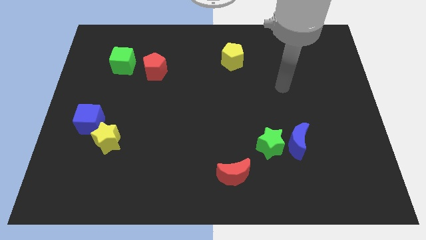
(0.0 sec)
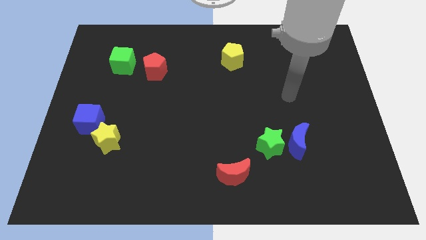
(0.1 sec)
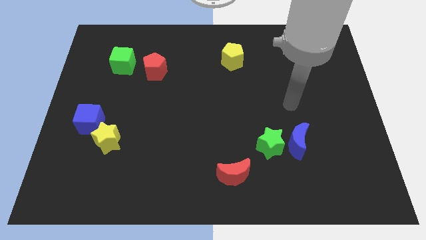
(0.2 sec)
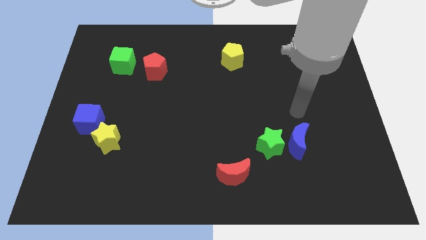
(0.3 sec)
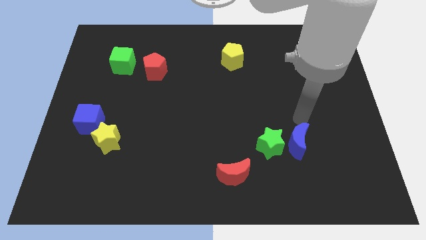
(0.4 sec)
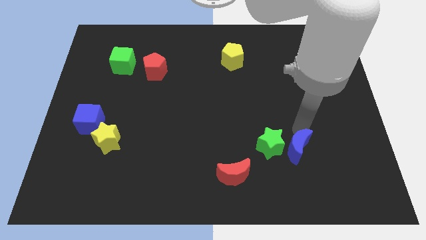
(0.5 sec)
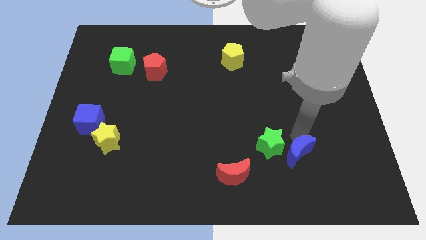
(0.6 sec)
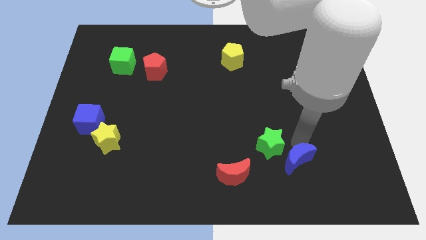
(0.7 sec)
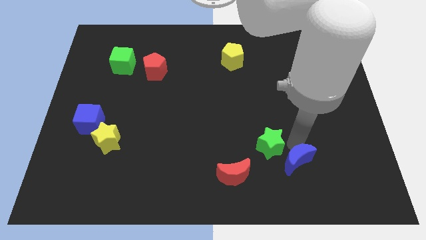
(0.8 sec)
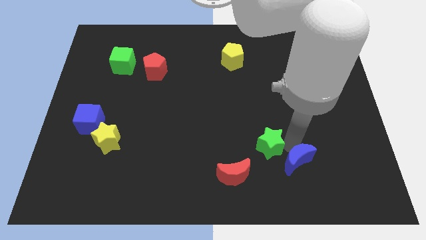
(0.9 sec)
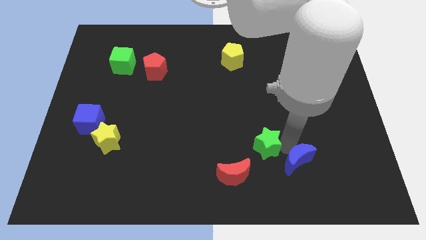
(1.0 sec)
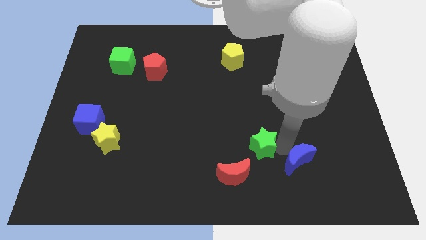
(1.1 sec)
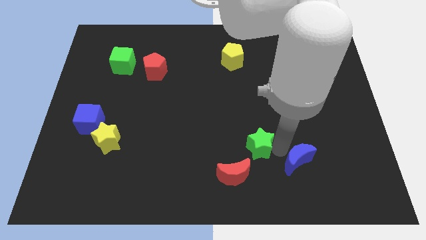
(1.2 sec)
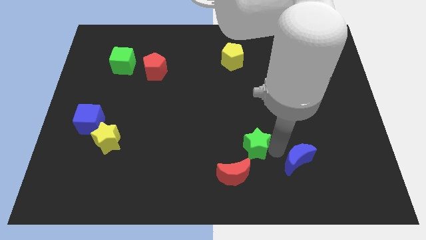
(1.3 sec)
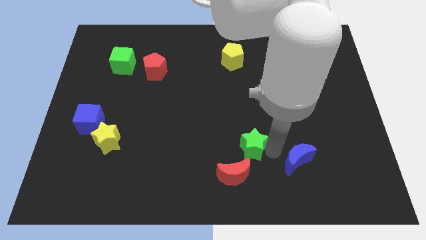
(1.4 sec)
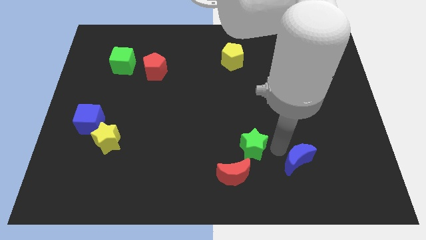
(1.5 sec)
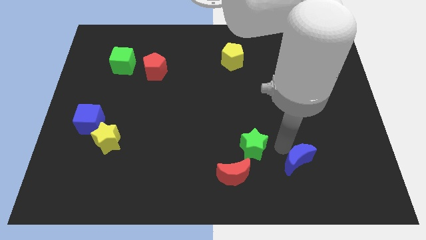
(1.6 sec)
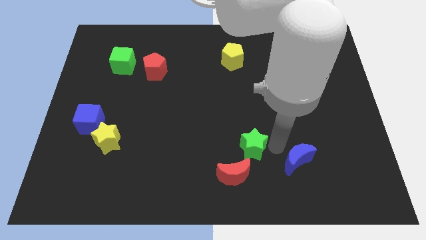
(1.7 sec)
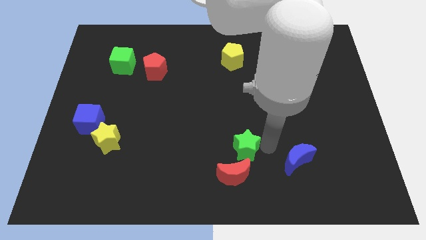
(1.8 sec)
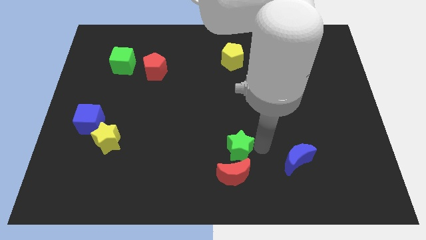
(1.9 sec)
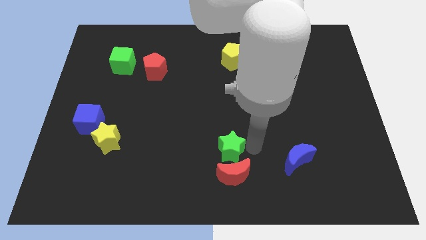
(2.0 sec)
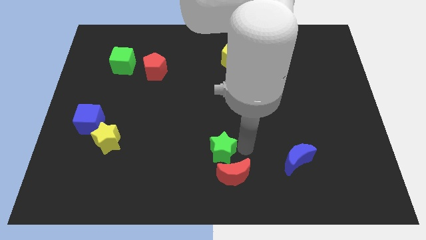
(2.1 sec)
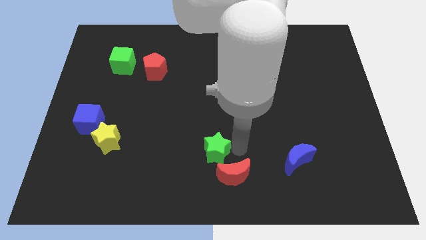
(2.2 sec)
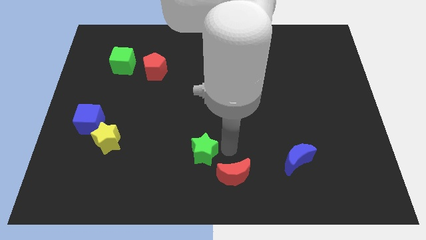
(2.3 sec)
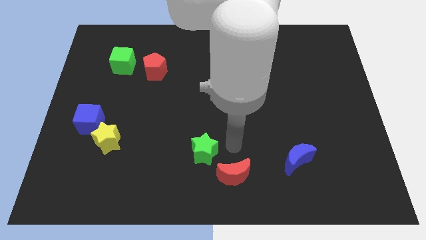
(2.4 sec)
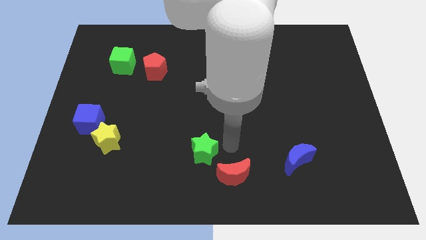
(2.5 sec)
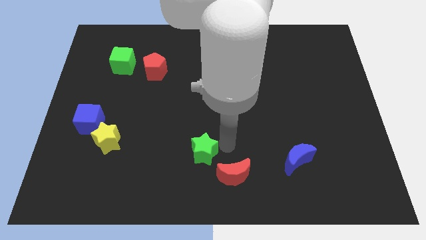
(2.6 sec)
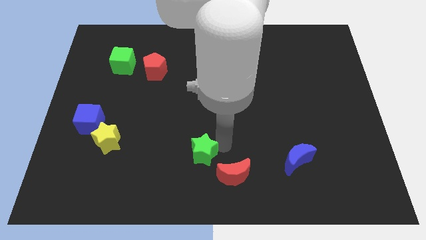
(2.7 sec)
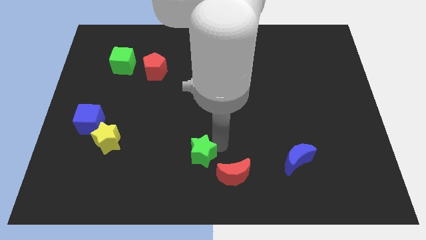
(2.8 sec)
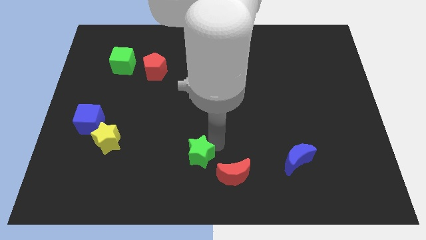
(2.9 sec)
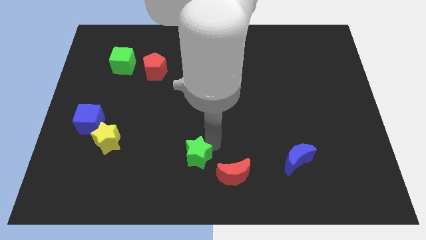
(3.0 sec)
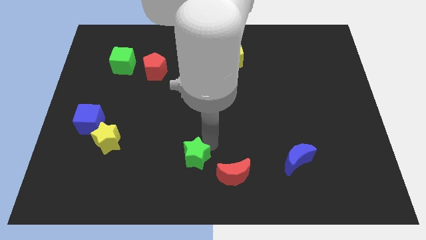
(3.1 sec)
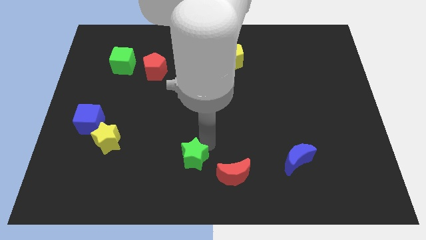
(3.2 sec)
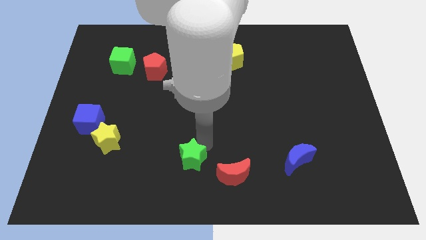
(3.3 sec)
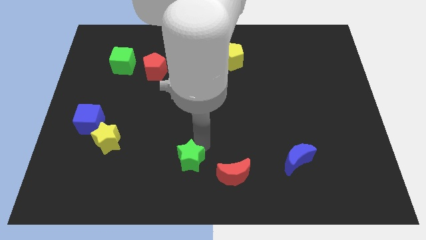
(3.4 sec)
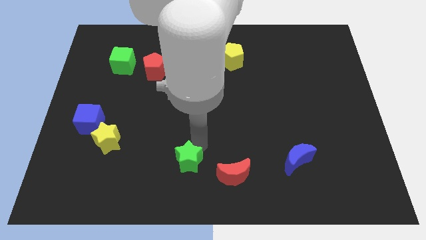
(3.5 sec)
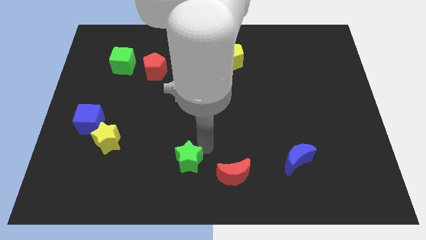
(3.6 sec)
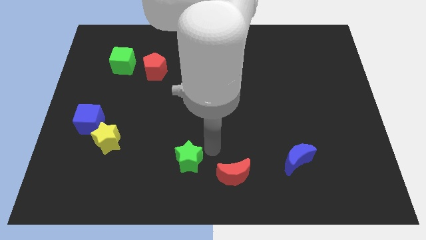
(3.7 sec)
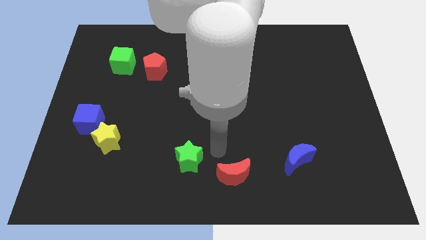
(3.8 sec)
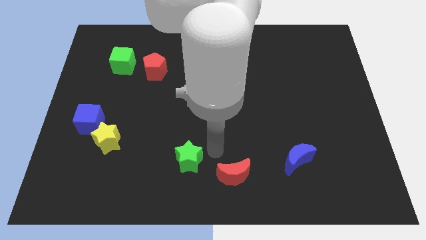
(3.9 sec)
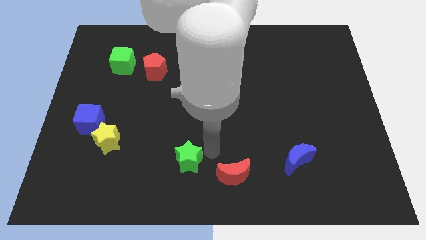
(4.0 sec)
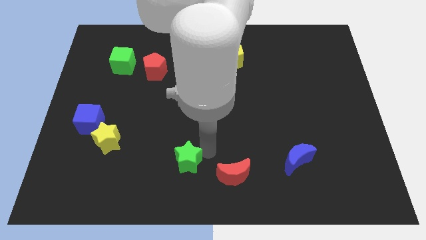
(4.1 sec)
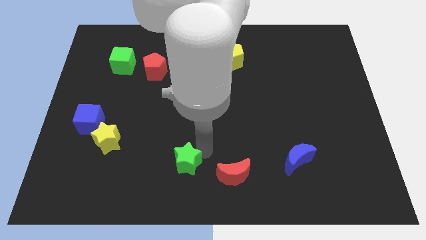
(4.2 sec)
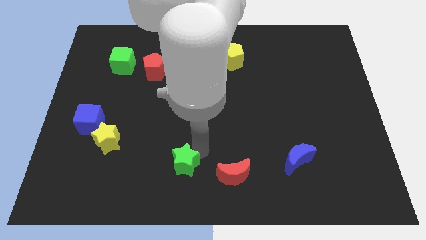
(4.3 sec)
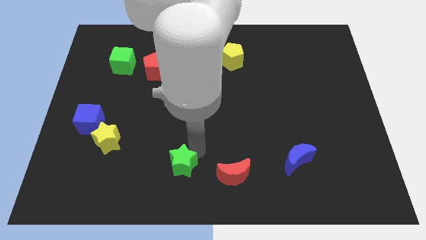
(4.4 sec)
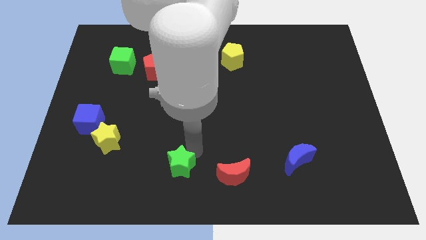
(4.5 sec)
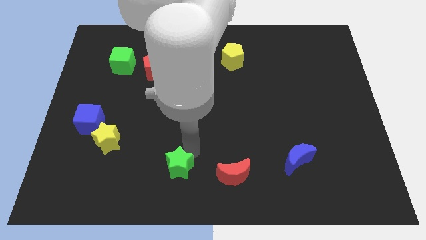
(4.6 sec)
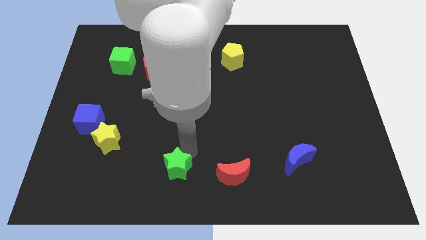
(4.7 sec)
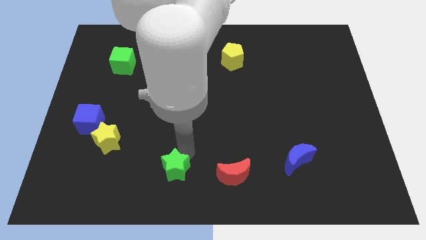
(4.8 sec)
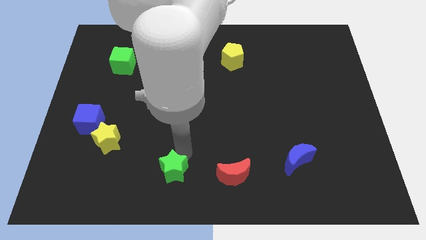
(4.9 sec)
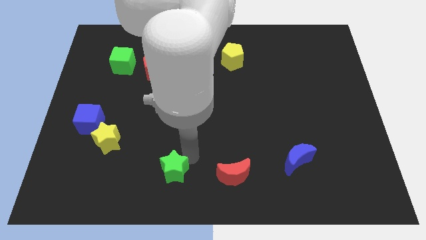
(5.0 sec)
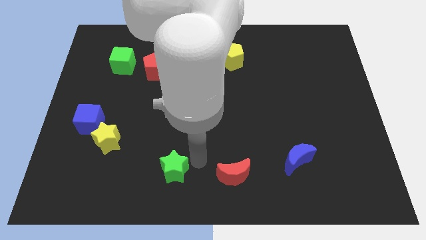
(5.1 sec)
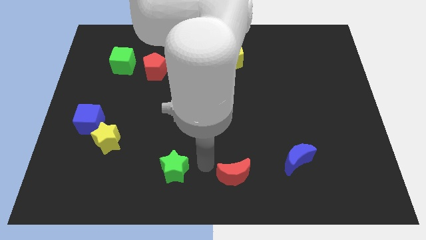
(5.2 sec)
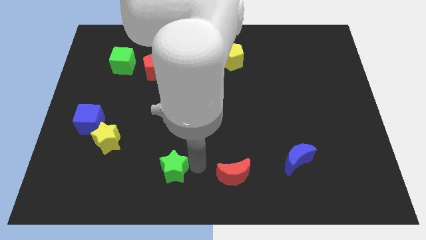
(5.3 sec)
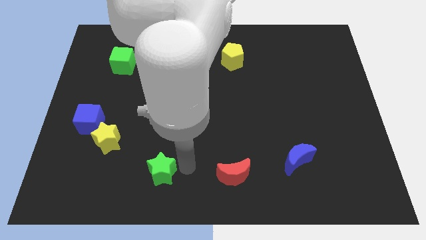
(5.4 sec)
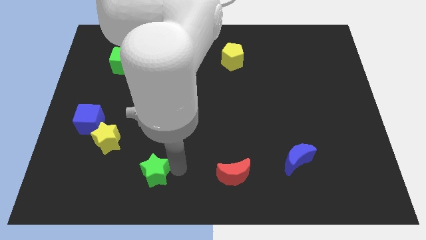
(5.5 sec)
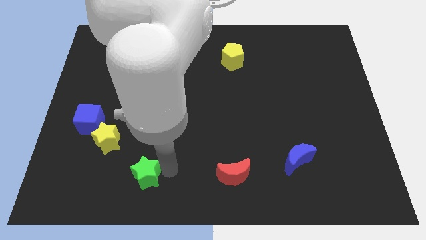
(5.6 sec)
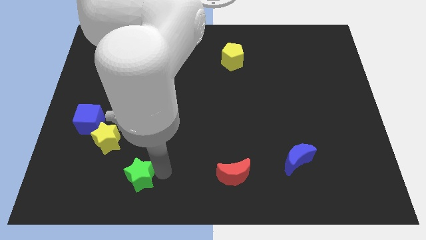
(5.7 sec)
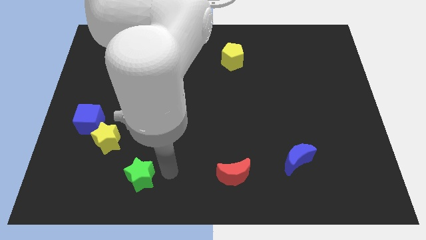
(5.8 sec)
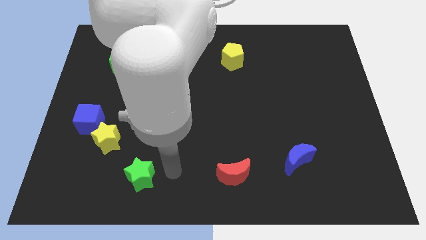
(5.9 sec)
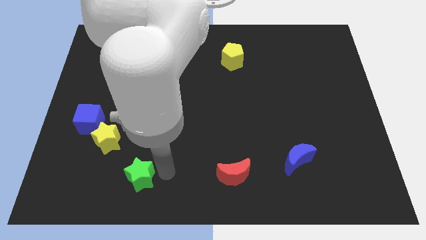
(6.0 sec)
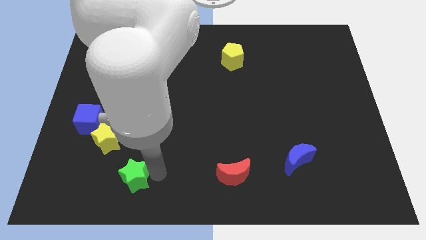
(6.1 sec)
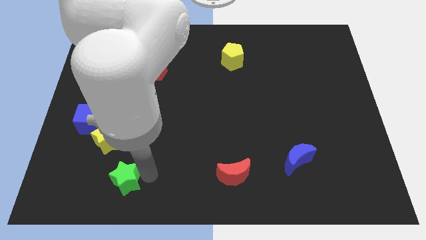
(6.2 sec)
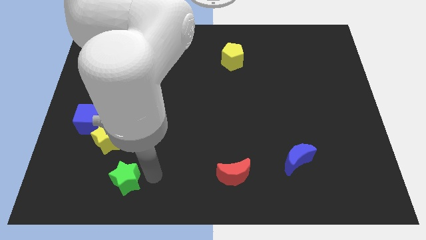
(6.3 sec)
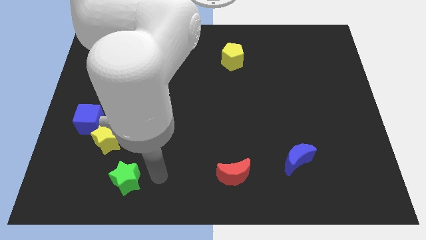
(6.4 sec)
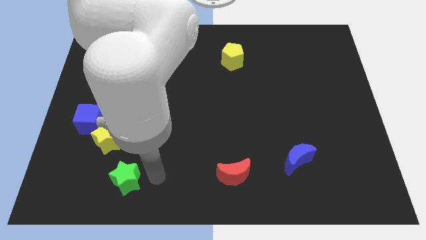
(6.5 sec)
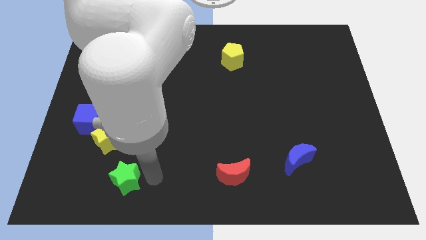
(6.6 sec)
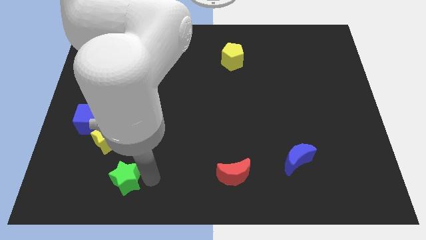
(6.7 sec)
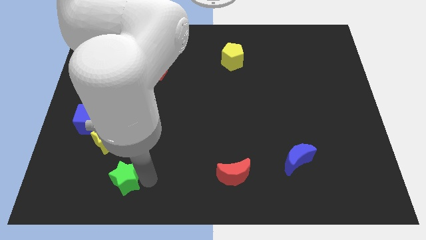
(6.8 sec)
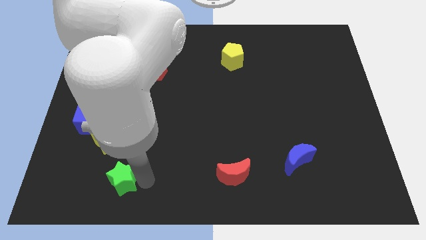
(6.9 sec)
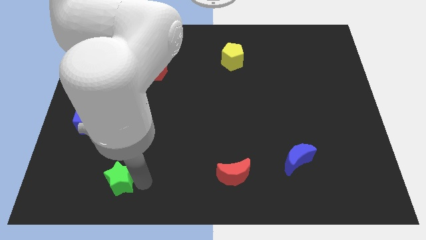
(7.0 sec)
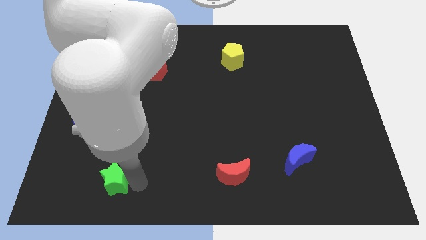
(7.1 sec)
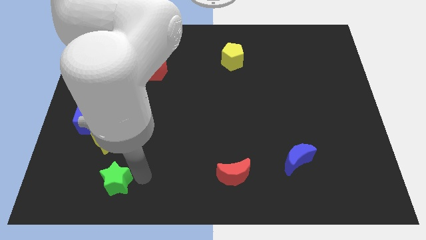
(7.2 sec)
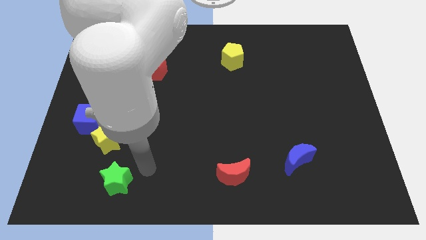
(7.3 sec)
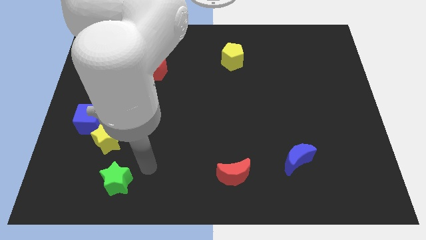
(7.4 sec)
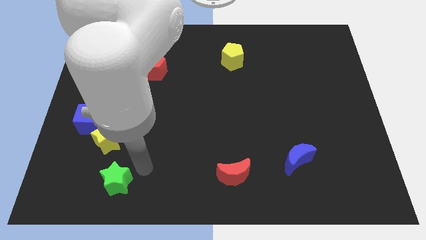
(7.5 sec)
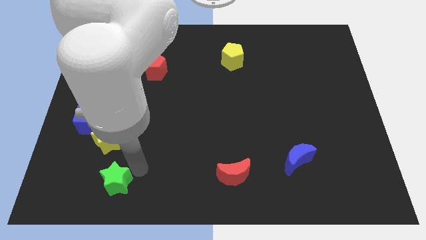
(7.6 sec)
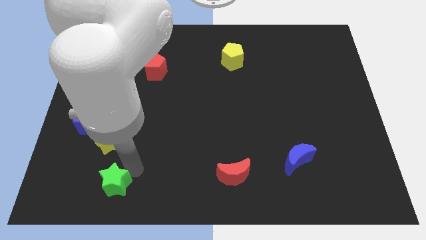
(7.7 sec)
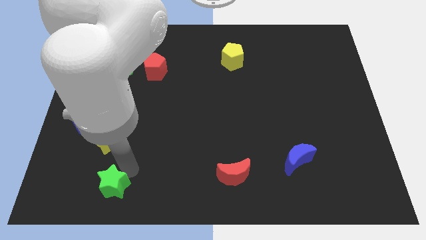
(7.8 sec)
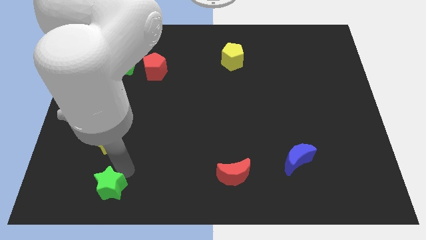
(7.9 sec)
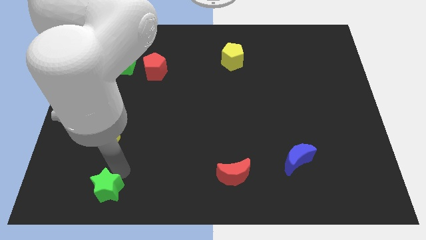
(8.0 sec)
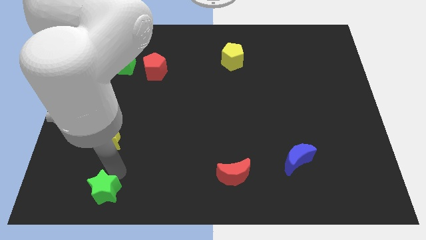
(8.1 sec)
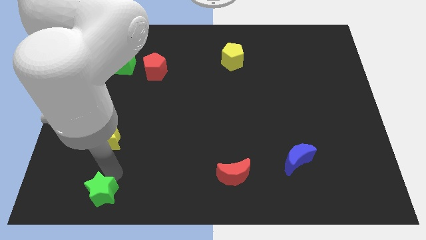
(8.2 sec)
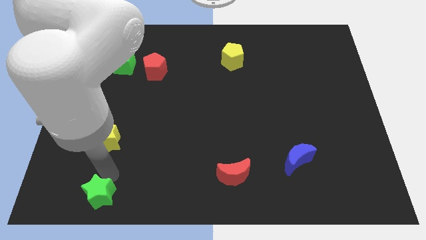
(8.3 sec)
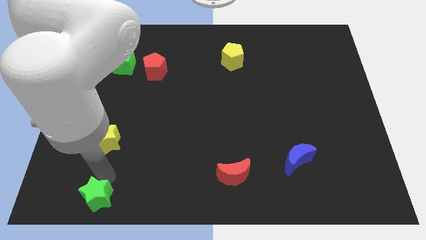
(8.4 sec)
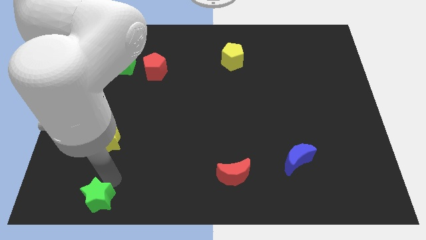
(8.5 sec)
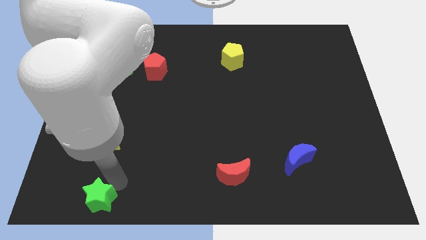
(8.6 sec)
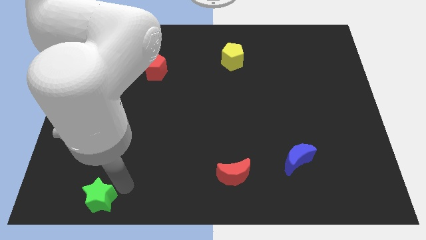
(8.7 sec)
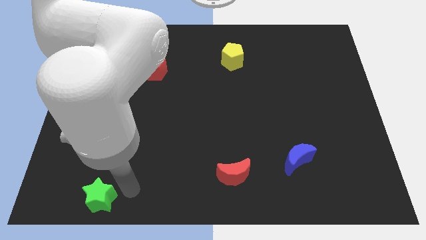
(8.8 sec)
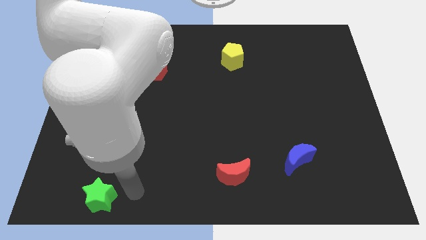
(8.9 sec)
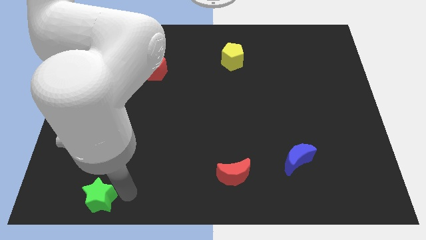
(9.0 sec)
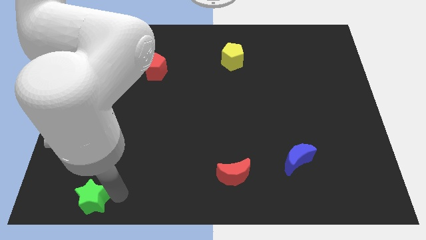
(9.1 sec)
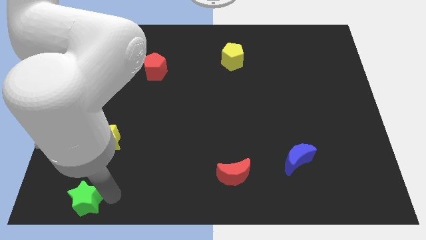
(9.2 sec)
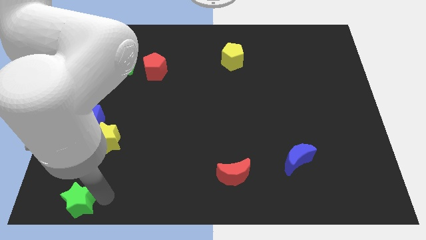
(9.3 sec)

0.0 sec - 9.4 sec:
move the green star to the bottom left
